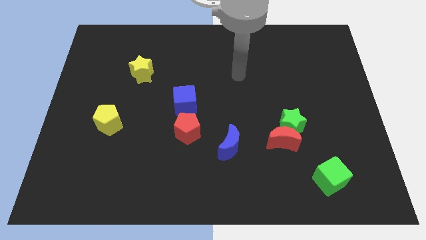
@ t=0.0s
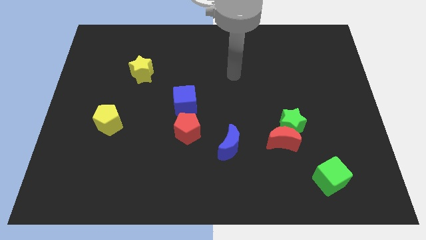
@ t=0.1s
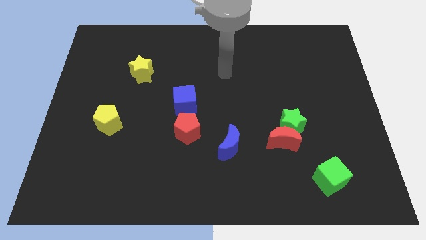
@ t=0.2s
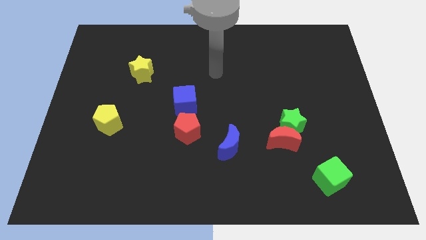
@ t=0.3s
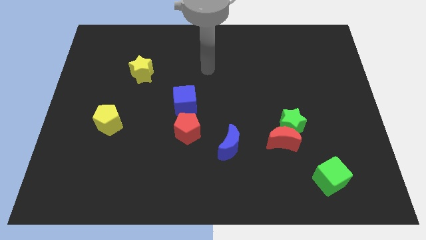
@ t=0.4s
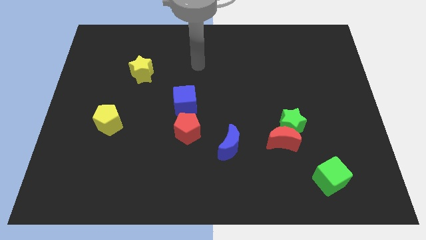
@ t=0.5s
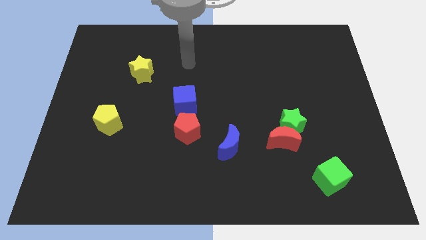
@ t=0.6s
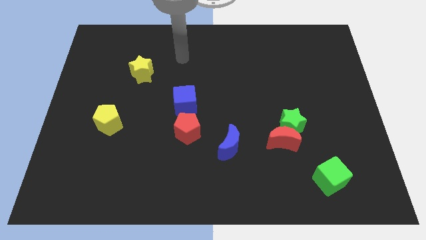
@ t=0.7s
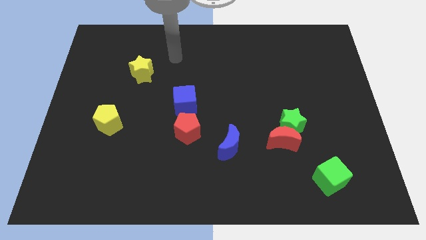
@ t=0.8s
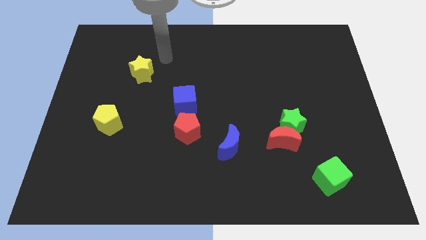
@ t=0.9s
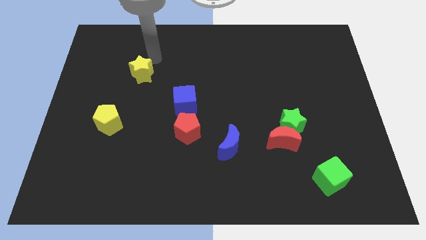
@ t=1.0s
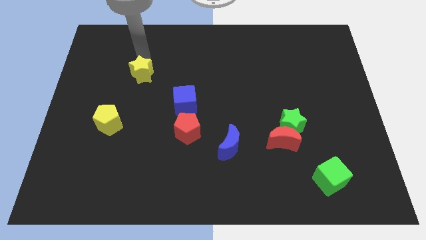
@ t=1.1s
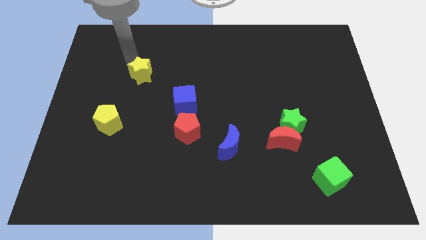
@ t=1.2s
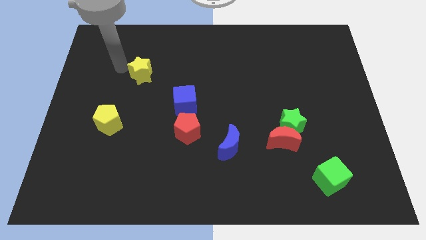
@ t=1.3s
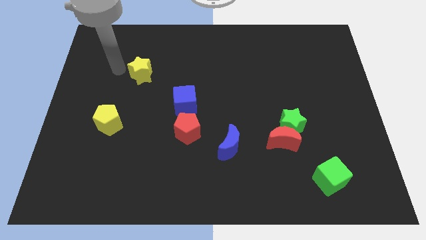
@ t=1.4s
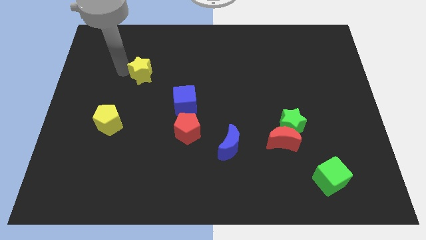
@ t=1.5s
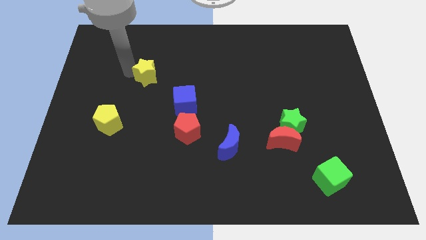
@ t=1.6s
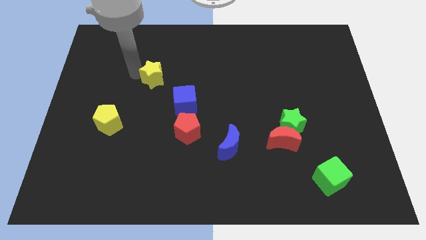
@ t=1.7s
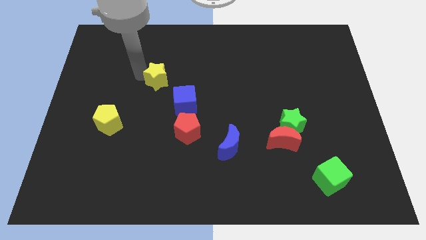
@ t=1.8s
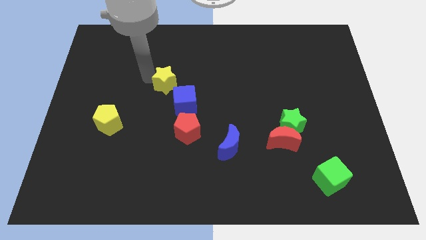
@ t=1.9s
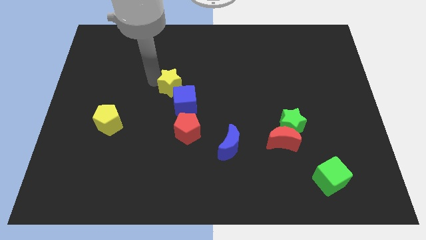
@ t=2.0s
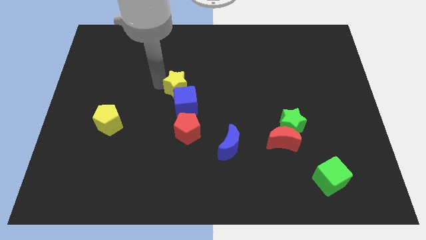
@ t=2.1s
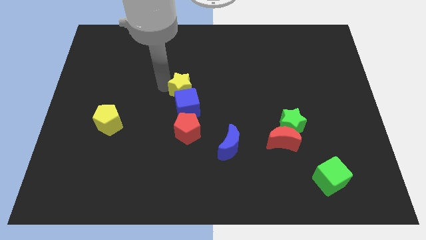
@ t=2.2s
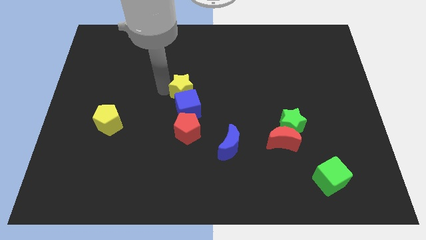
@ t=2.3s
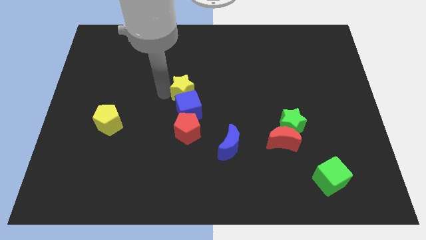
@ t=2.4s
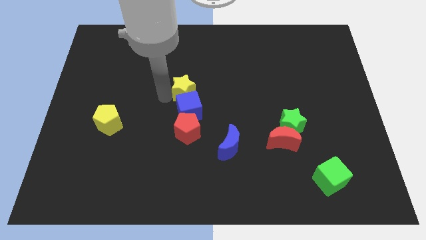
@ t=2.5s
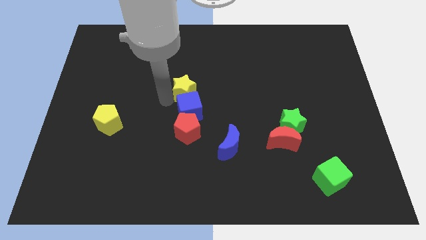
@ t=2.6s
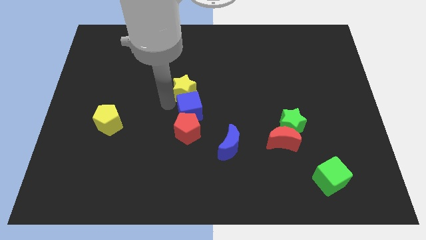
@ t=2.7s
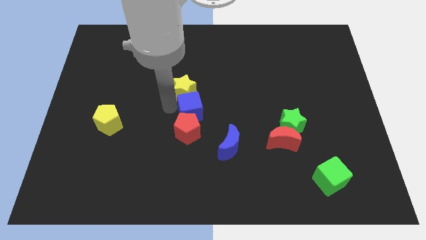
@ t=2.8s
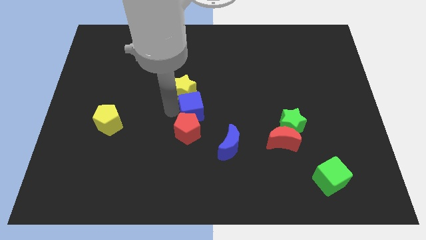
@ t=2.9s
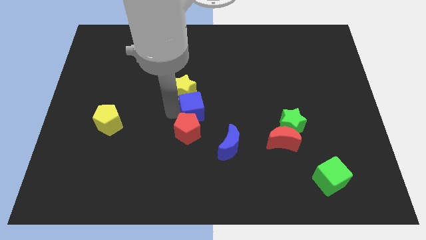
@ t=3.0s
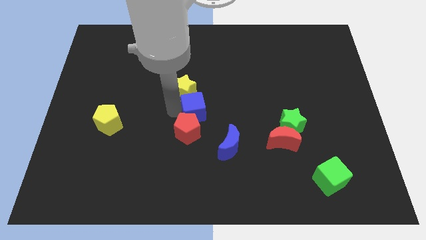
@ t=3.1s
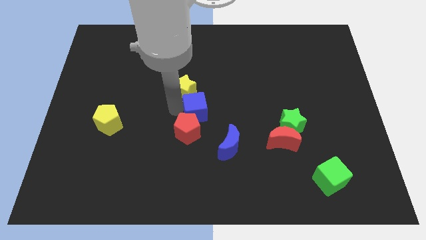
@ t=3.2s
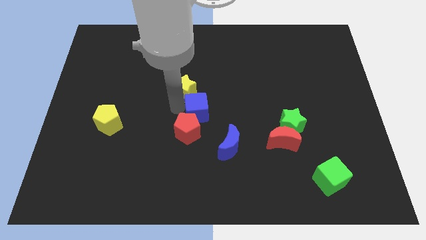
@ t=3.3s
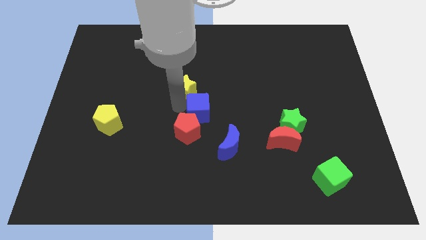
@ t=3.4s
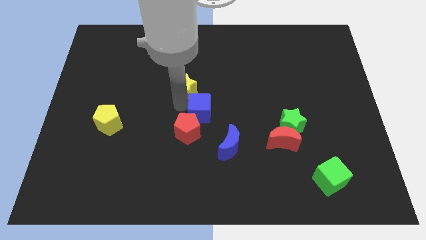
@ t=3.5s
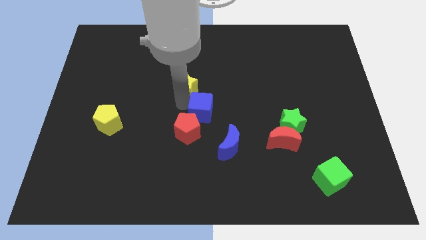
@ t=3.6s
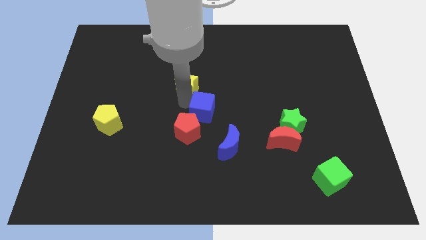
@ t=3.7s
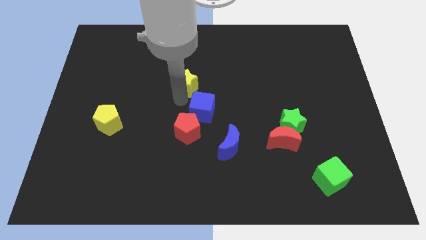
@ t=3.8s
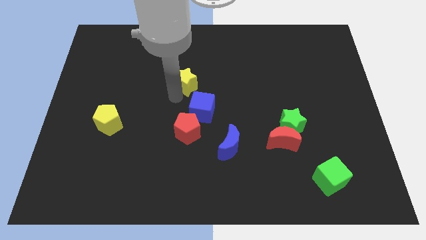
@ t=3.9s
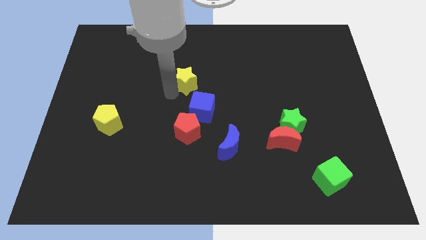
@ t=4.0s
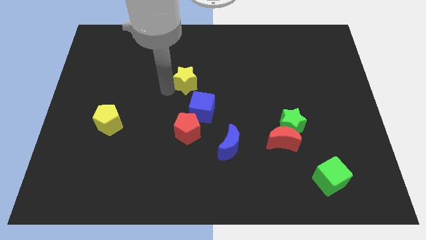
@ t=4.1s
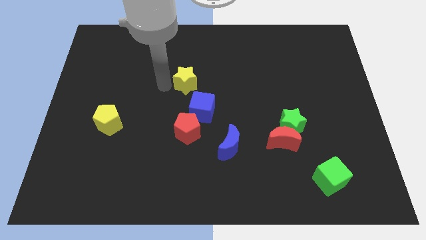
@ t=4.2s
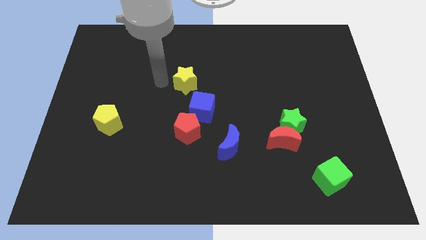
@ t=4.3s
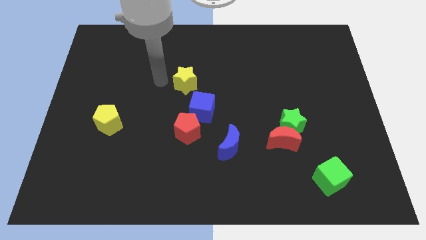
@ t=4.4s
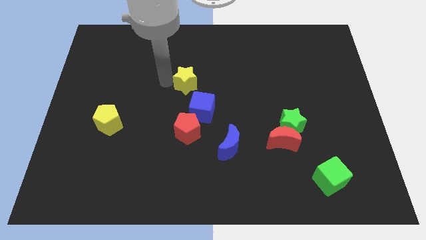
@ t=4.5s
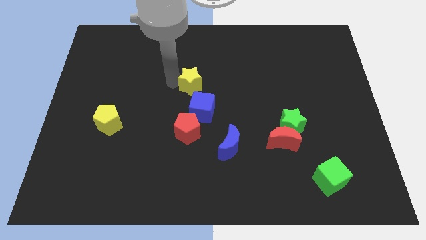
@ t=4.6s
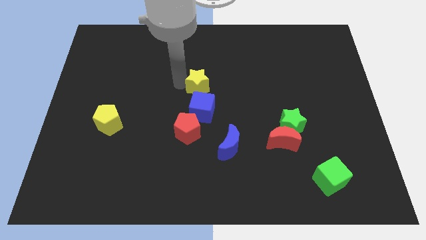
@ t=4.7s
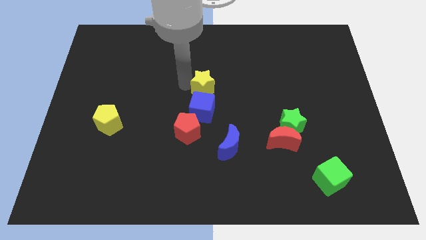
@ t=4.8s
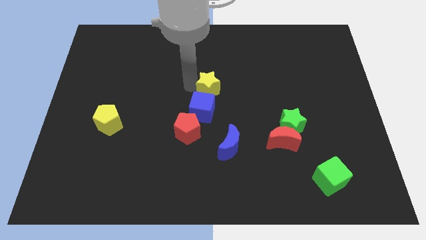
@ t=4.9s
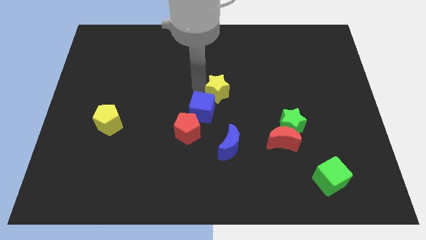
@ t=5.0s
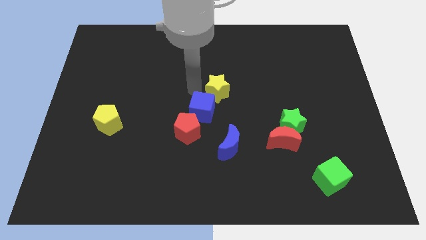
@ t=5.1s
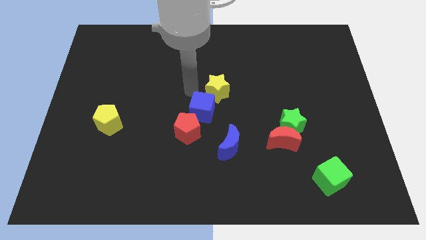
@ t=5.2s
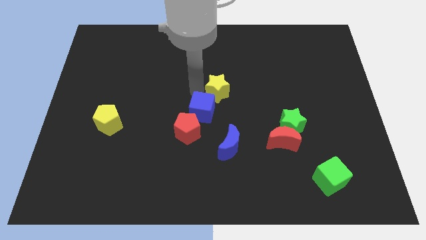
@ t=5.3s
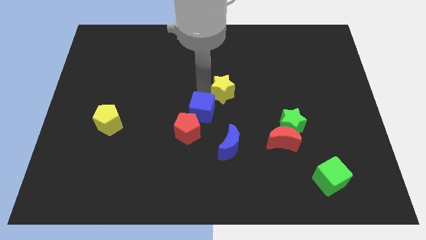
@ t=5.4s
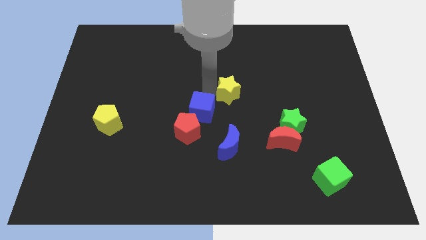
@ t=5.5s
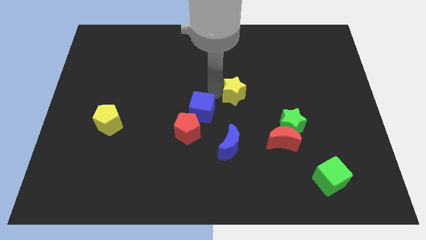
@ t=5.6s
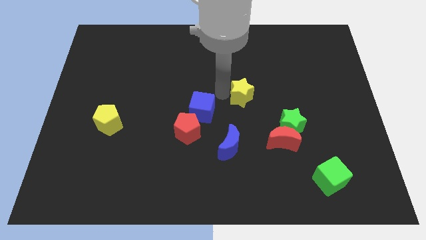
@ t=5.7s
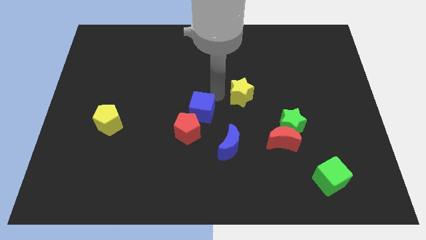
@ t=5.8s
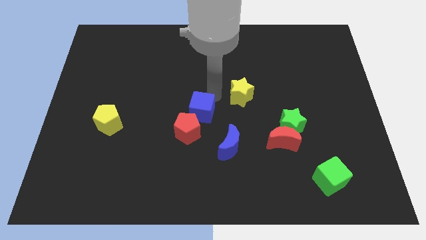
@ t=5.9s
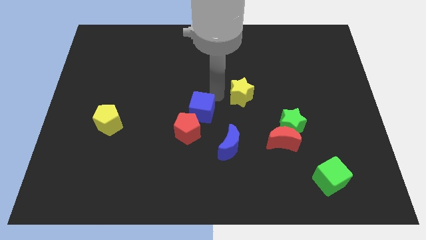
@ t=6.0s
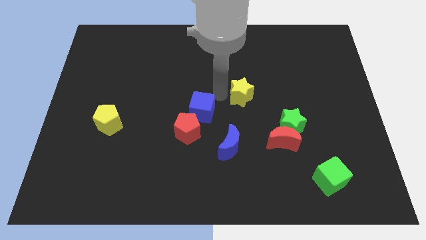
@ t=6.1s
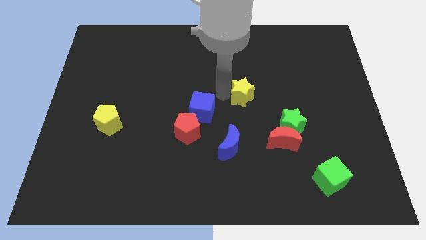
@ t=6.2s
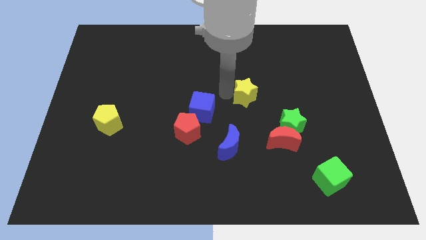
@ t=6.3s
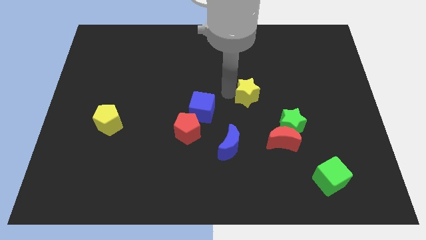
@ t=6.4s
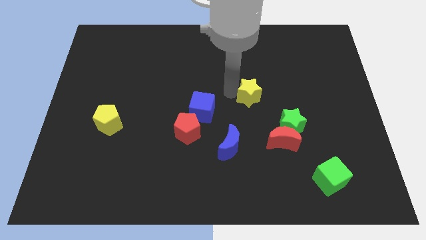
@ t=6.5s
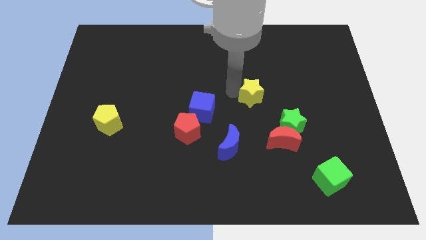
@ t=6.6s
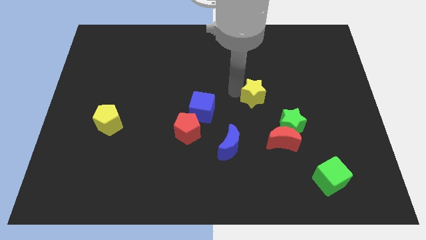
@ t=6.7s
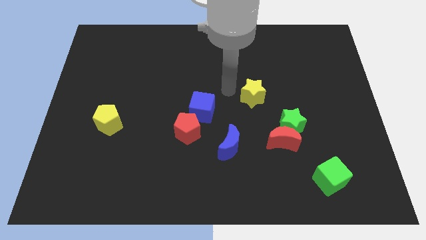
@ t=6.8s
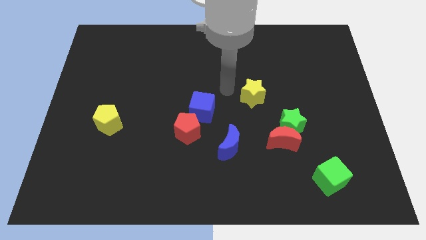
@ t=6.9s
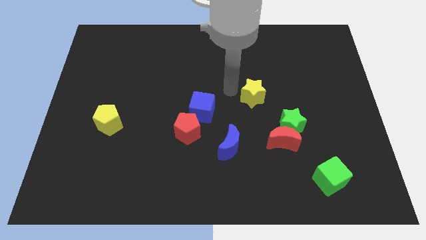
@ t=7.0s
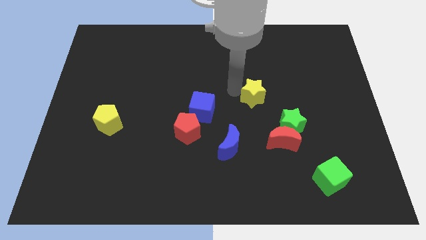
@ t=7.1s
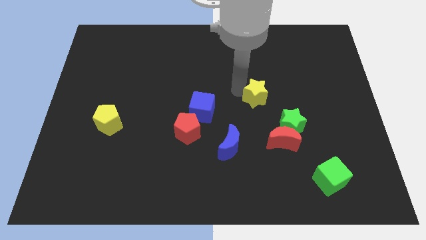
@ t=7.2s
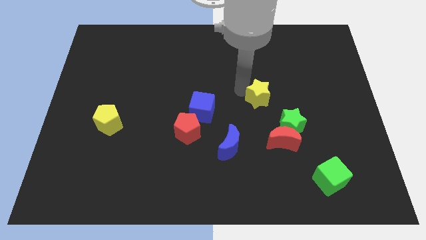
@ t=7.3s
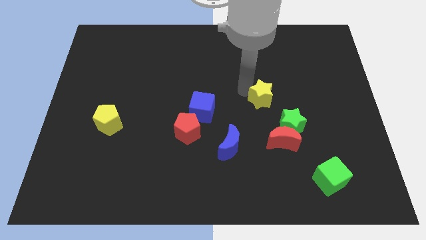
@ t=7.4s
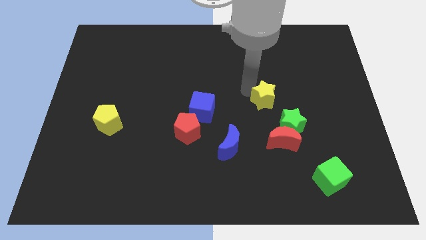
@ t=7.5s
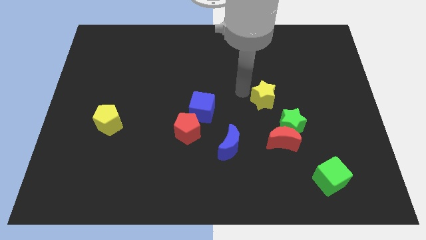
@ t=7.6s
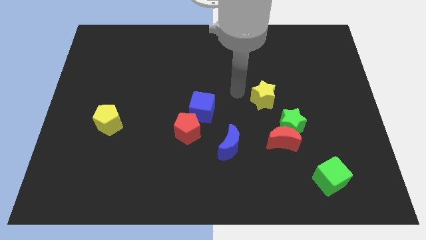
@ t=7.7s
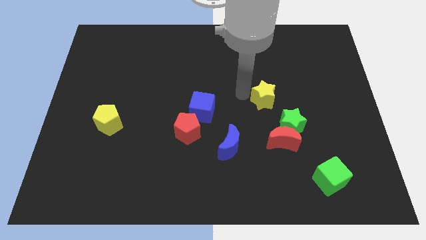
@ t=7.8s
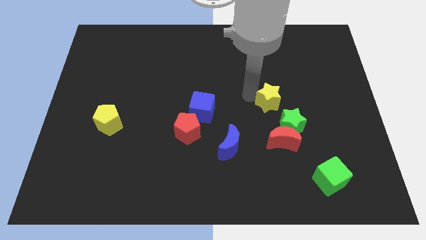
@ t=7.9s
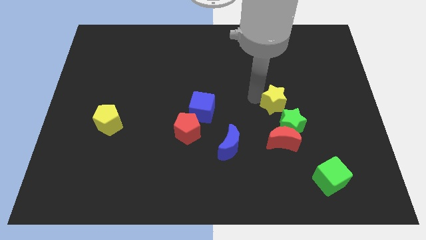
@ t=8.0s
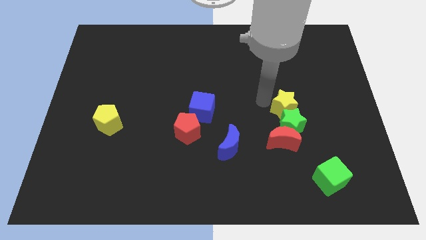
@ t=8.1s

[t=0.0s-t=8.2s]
slide the yellow star to the top right of the green star
